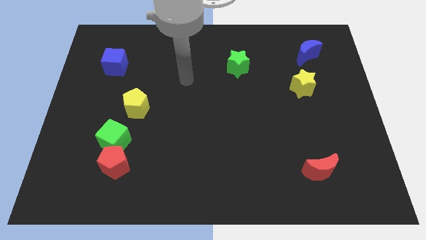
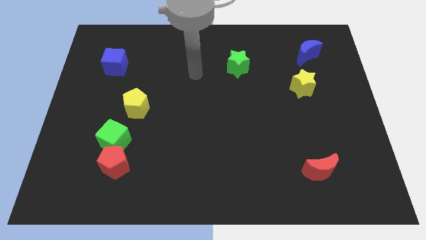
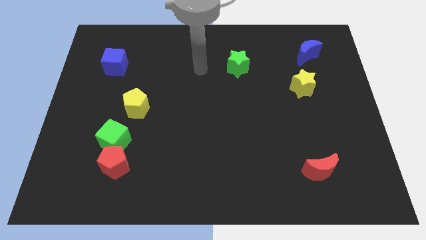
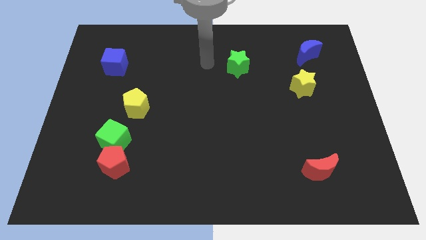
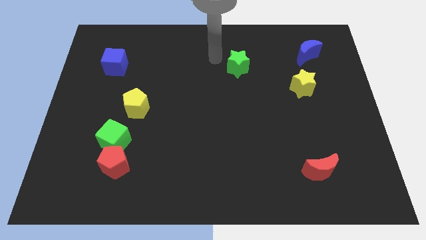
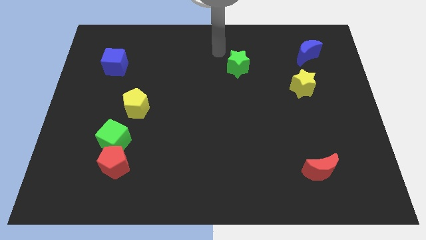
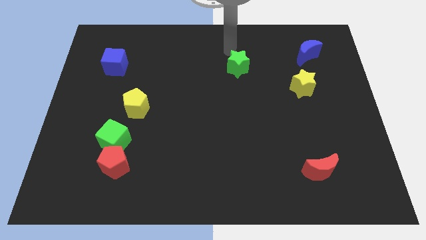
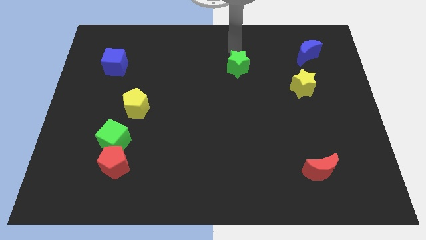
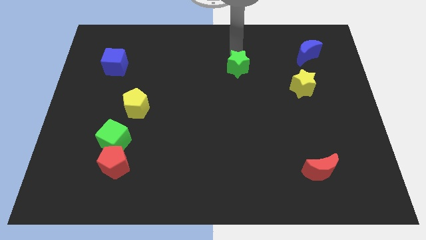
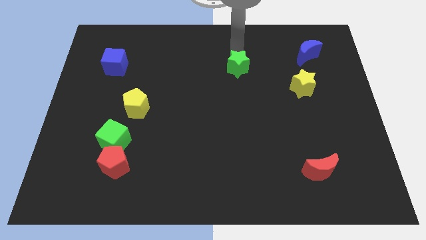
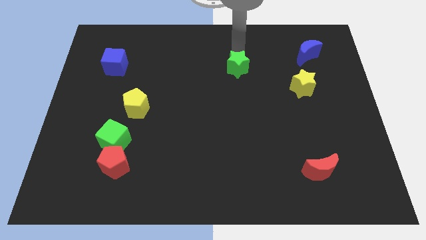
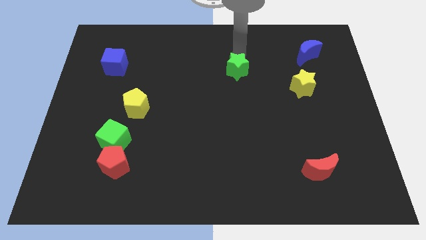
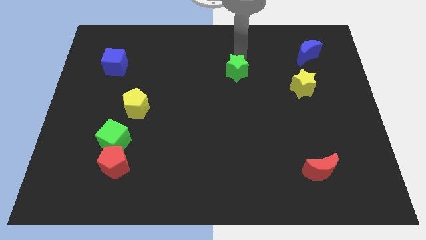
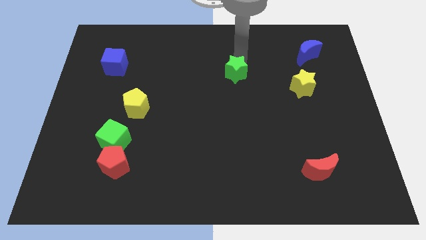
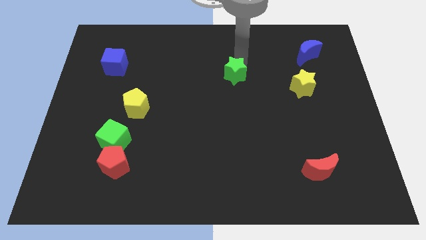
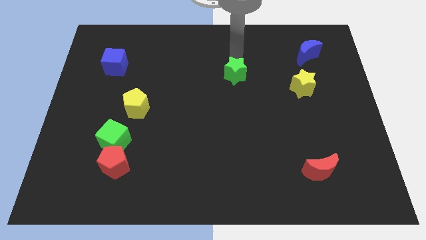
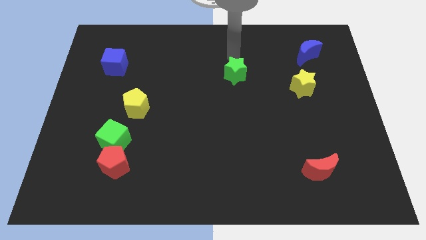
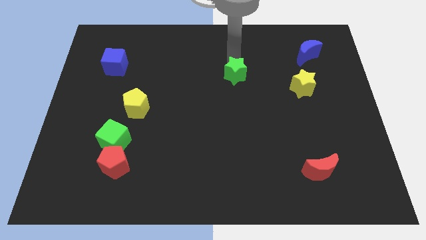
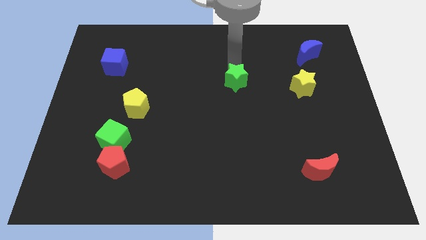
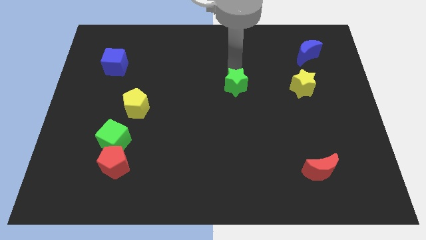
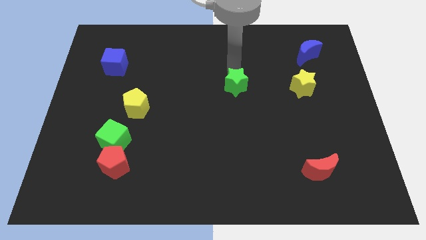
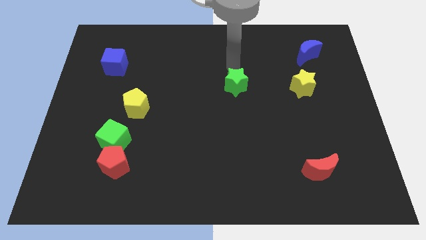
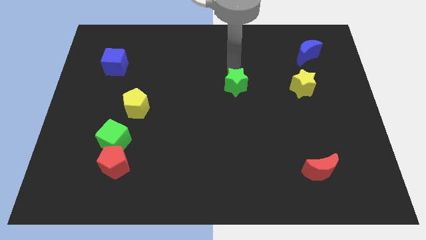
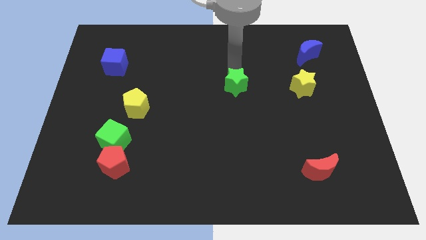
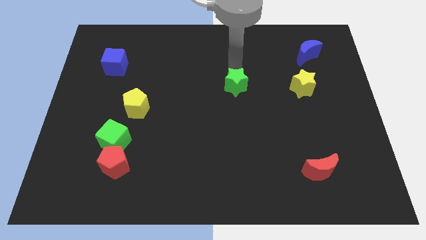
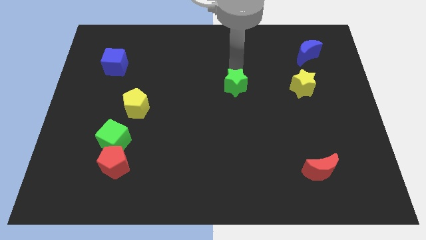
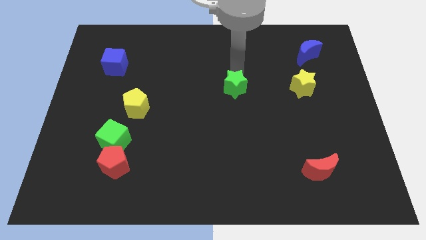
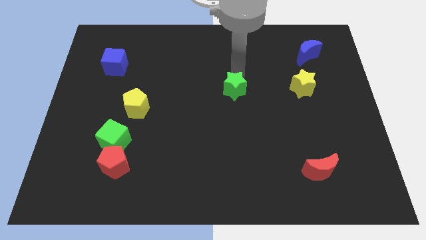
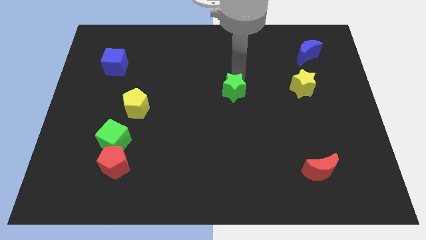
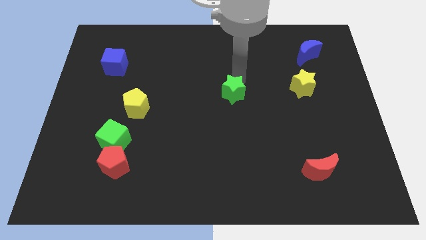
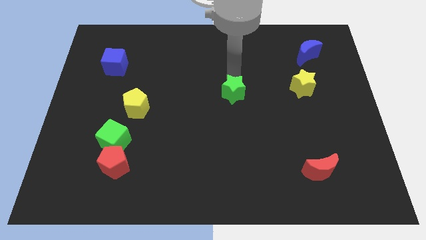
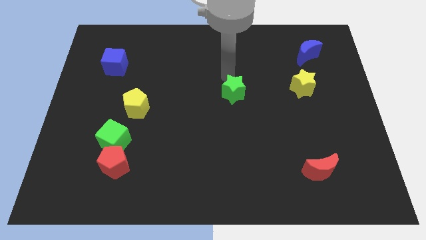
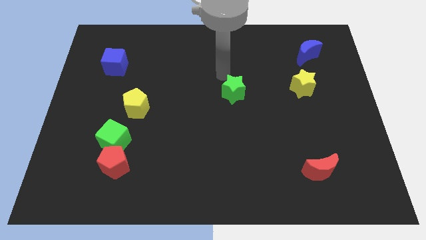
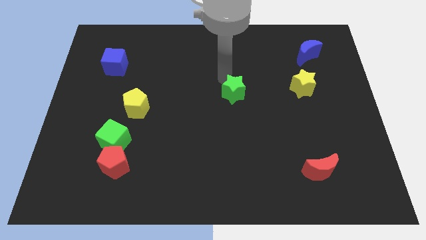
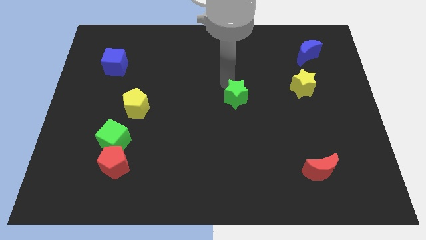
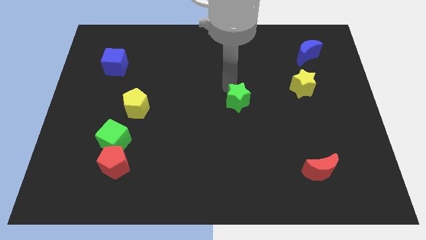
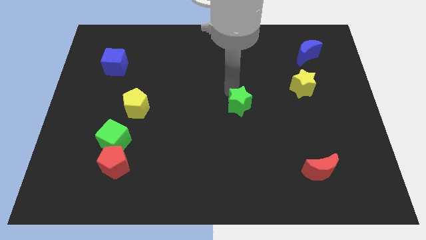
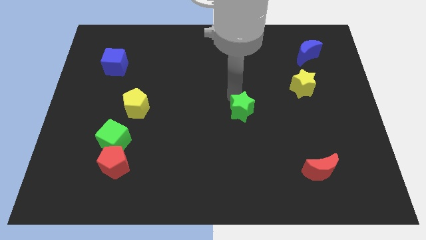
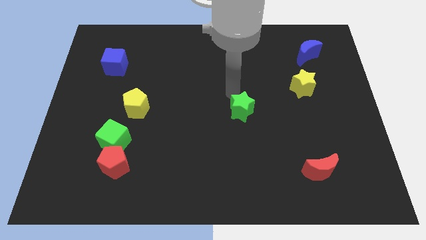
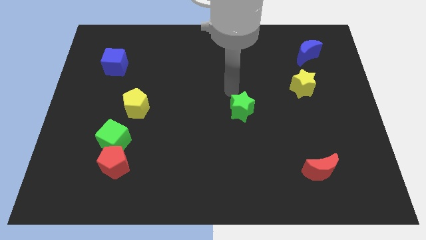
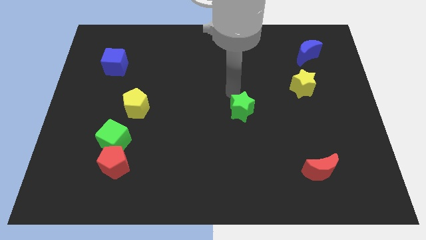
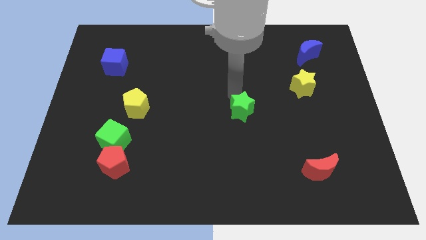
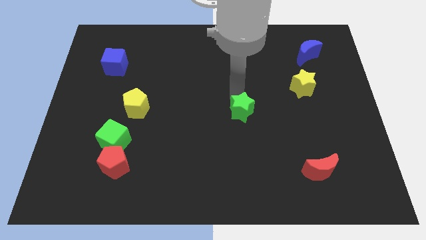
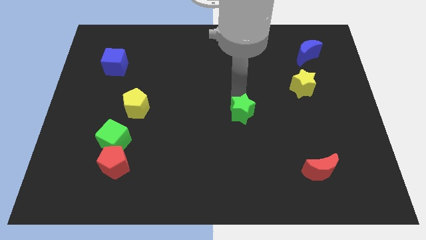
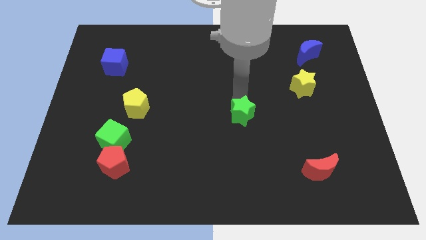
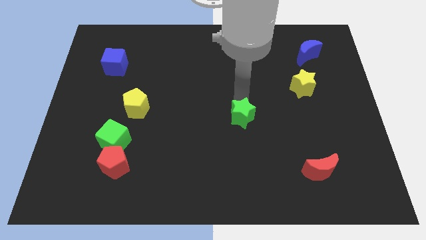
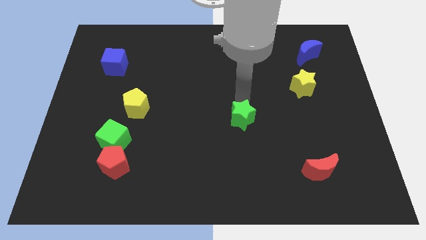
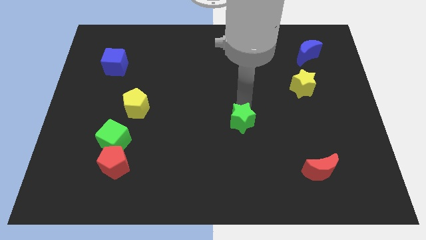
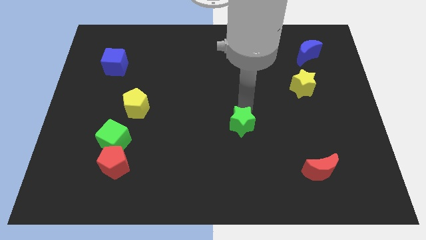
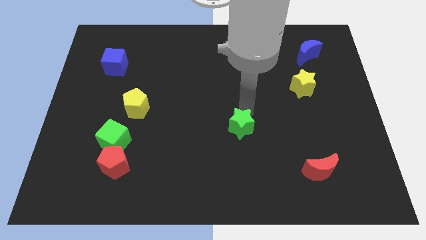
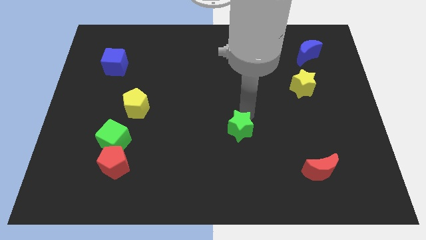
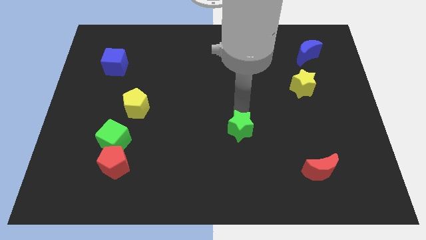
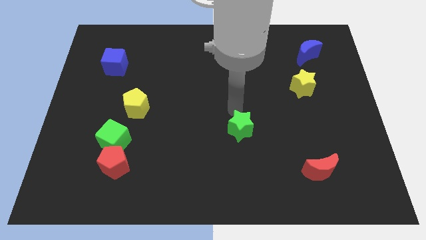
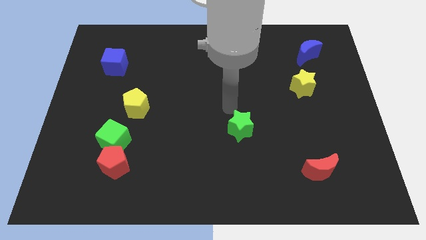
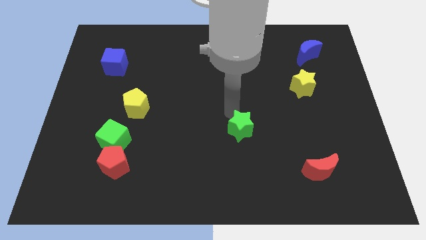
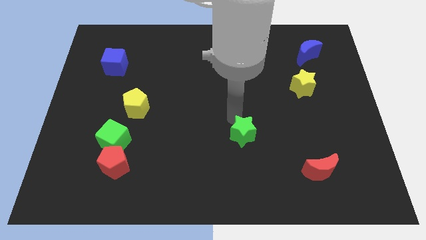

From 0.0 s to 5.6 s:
move the green star downwards

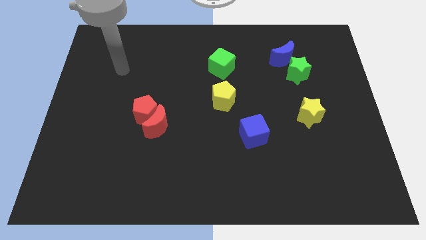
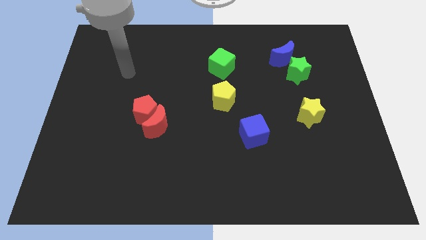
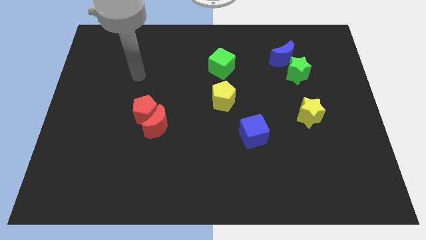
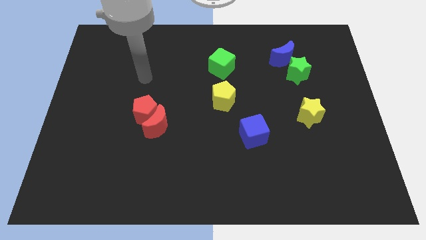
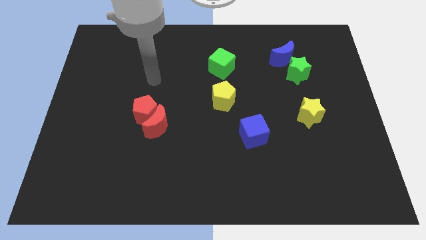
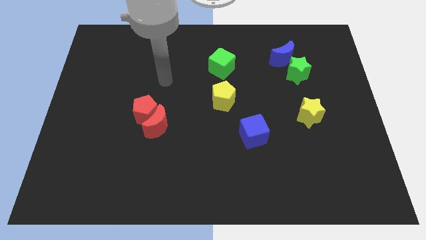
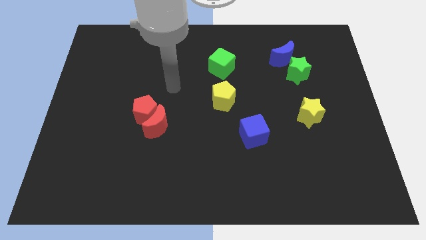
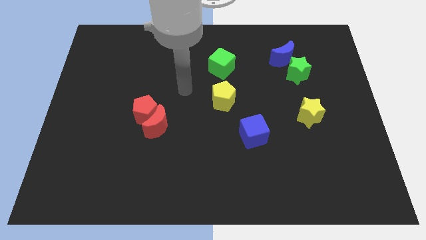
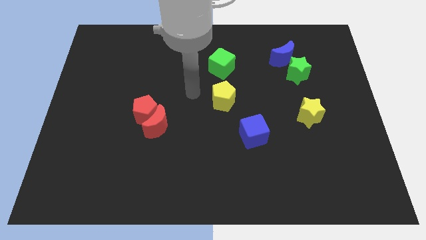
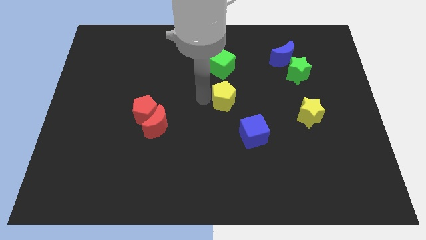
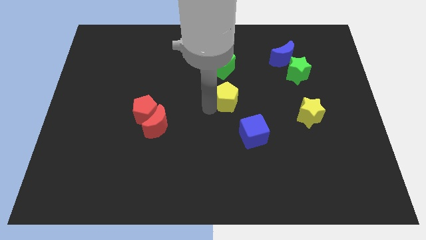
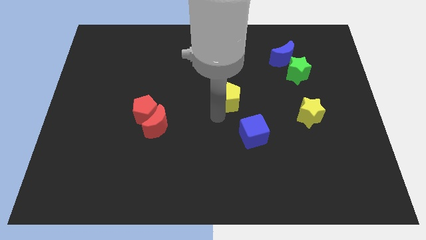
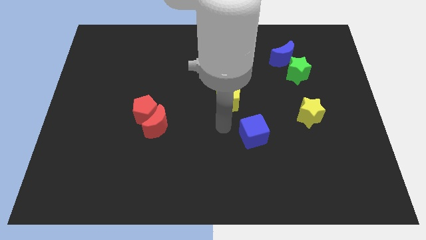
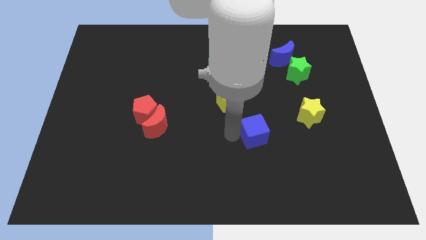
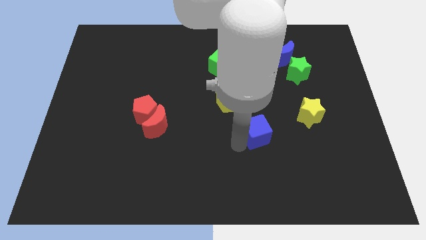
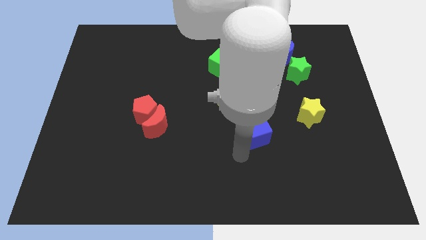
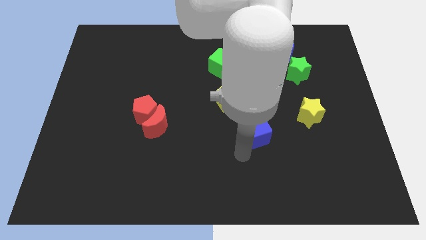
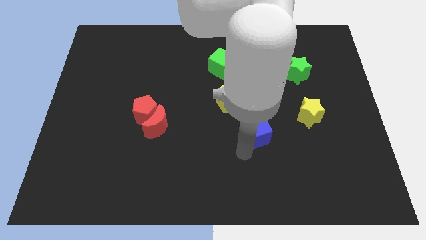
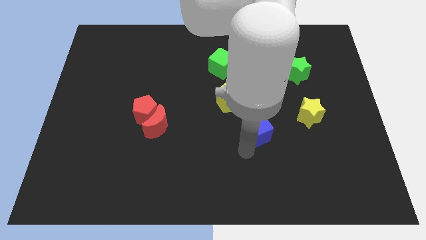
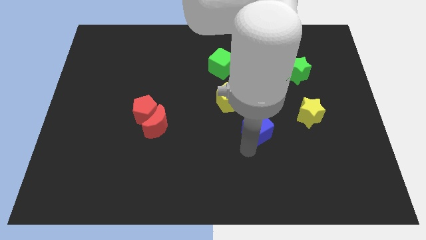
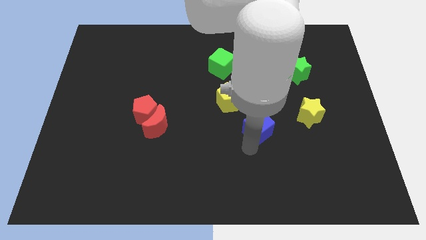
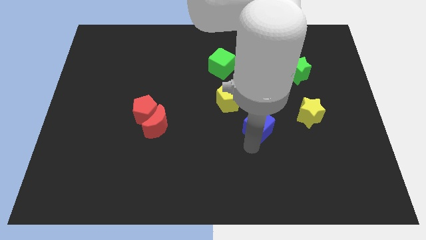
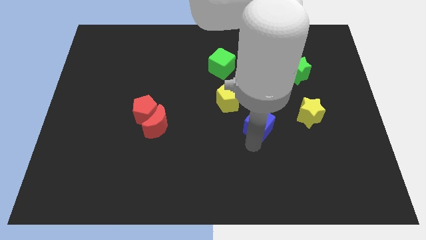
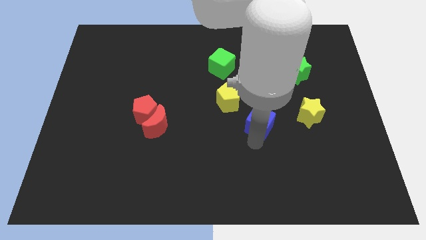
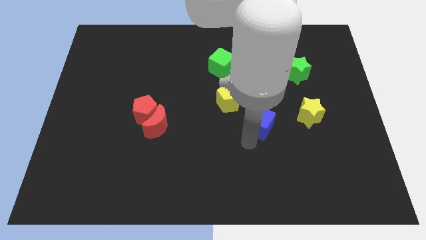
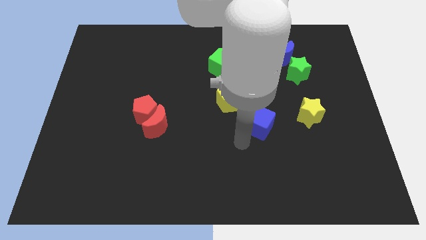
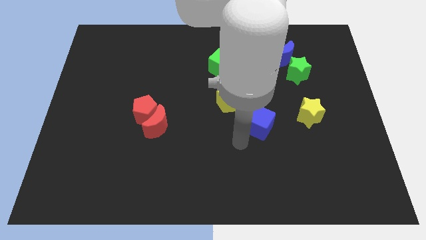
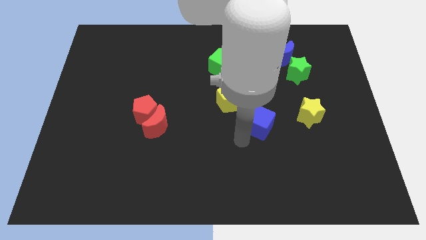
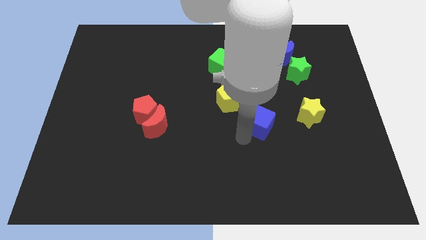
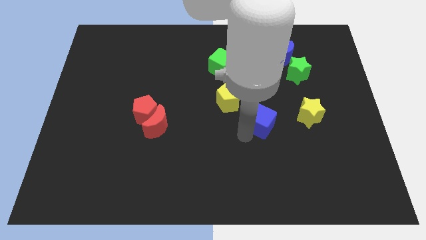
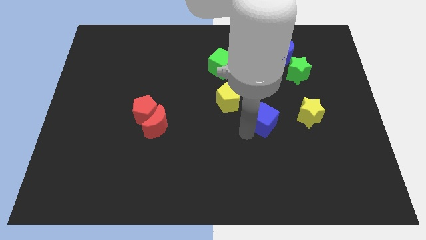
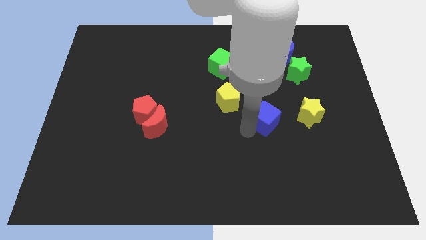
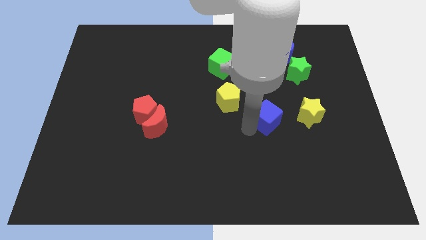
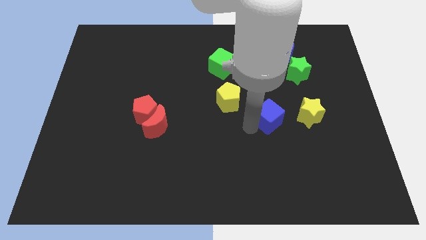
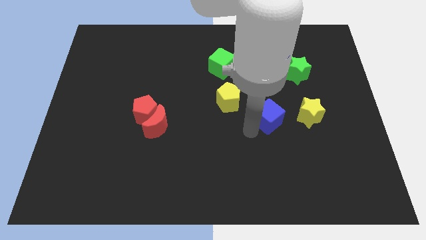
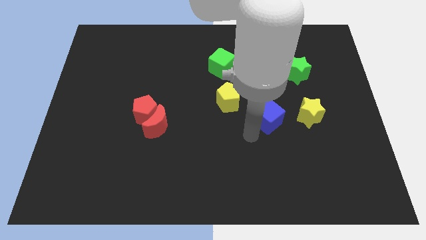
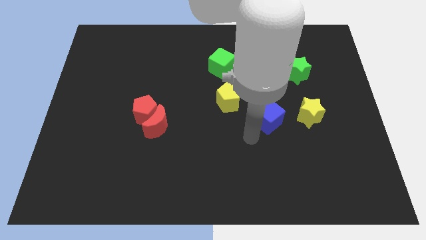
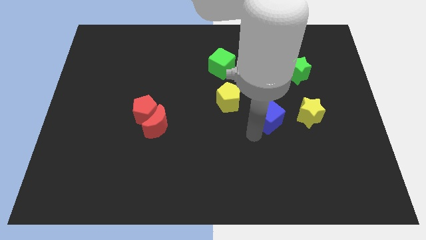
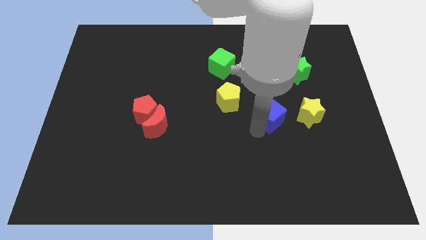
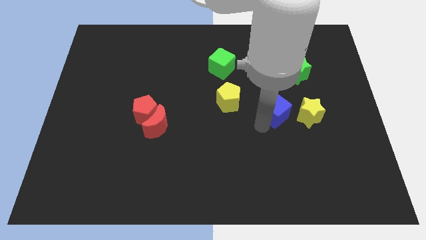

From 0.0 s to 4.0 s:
move the blue cube slightly up and then right
